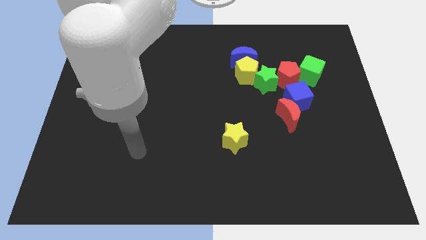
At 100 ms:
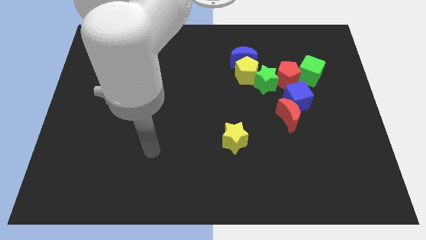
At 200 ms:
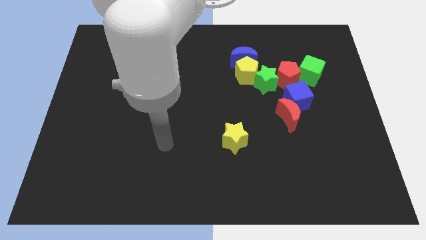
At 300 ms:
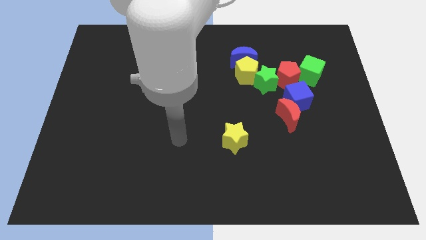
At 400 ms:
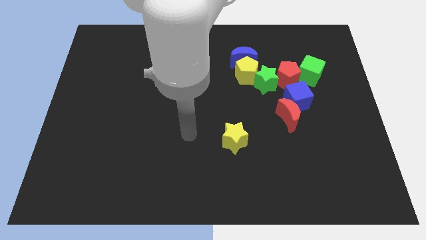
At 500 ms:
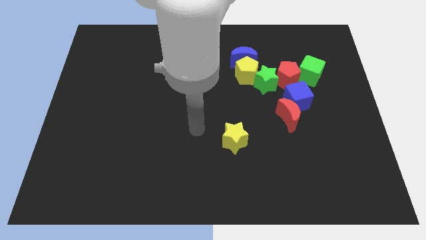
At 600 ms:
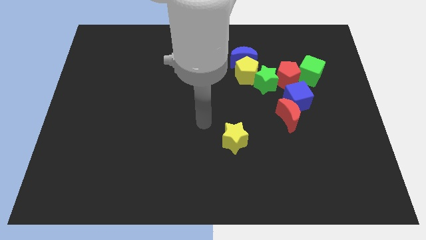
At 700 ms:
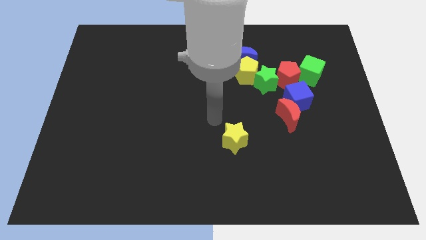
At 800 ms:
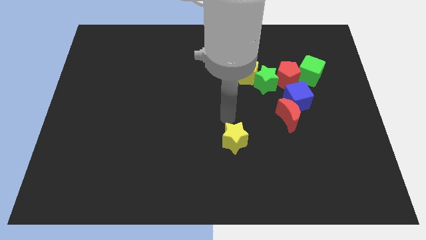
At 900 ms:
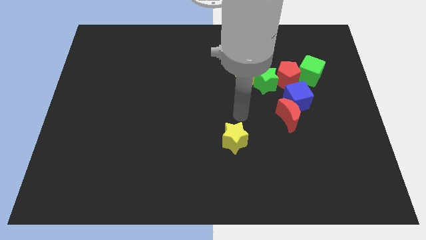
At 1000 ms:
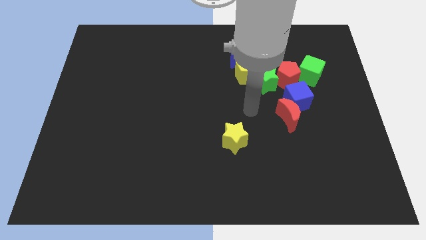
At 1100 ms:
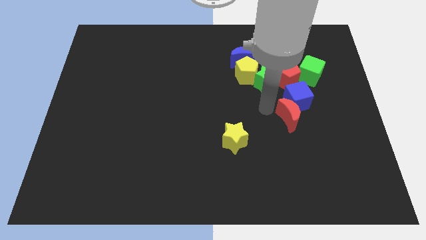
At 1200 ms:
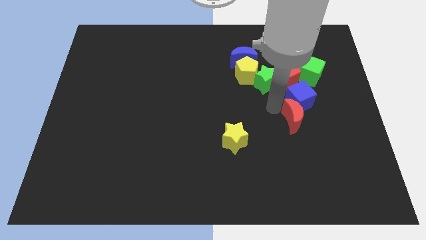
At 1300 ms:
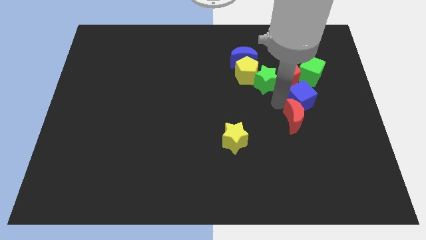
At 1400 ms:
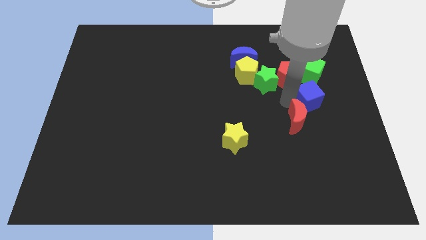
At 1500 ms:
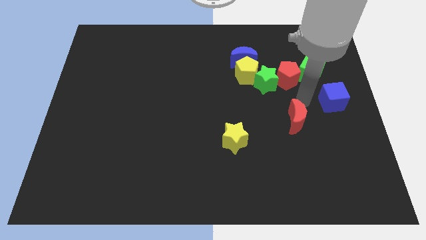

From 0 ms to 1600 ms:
separate the red moon from the blue cube

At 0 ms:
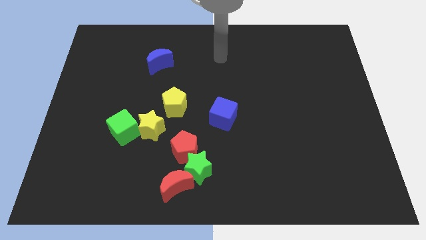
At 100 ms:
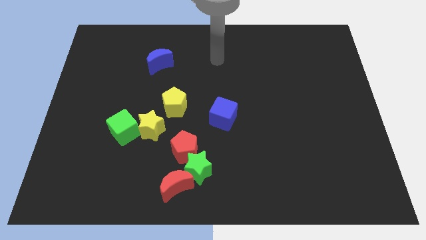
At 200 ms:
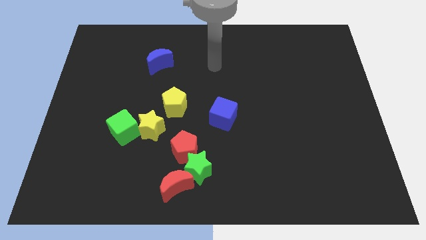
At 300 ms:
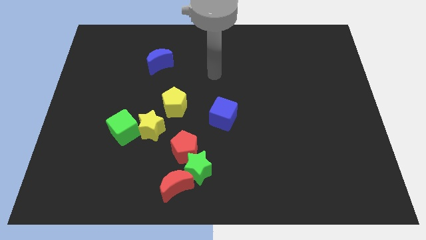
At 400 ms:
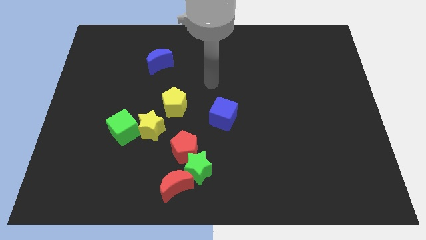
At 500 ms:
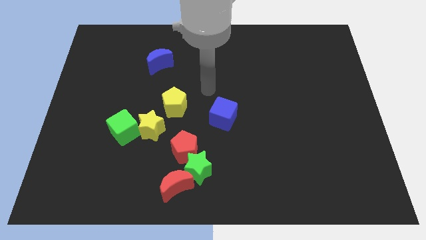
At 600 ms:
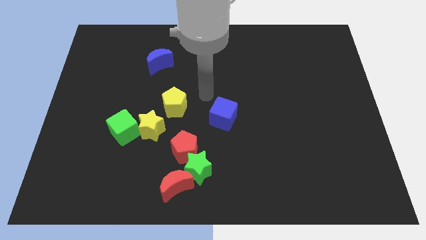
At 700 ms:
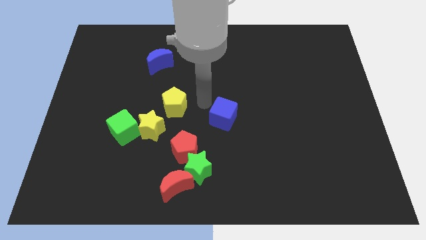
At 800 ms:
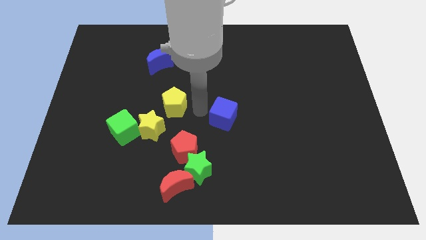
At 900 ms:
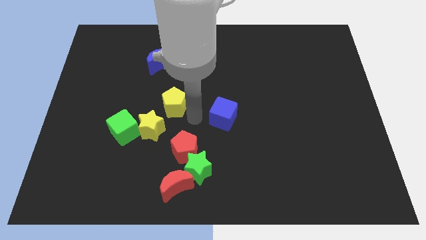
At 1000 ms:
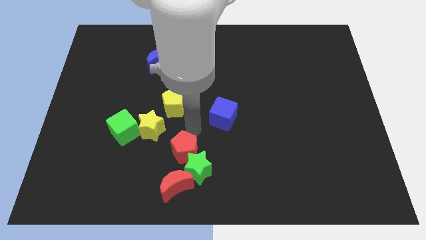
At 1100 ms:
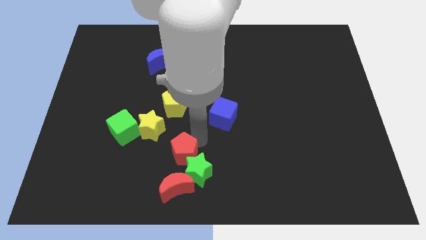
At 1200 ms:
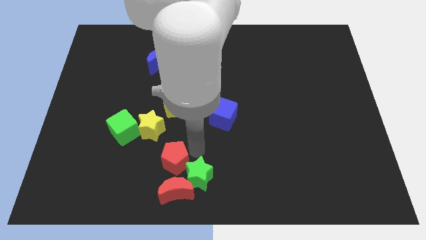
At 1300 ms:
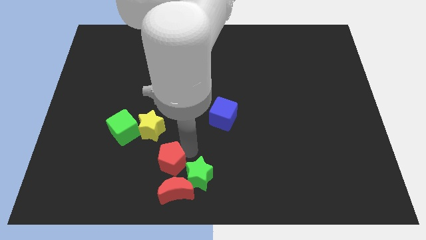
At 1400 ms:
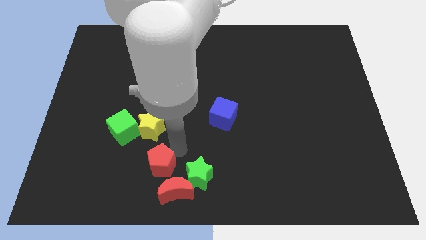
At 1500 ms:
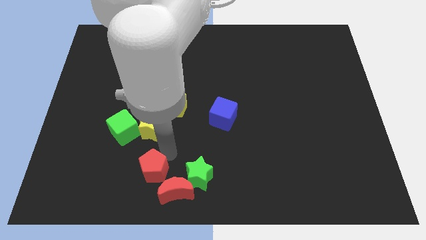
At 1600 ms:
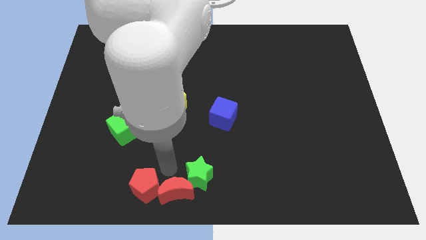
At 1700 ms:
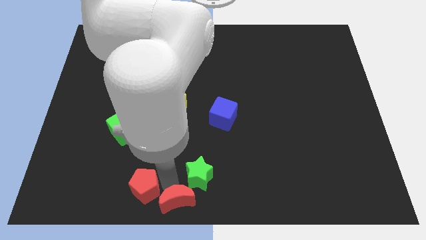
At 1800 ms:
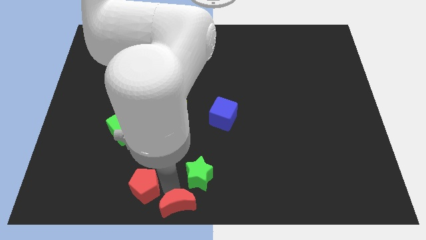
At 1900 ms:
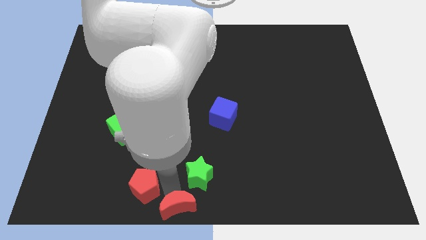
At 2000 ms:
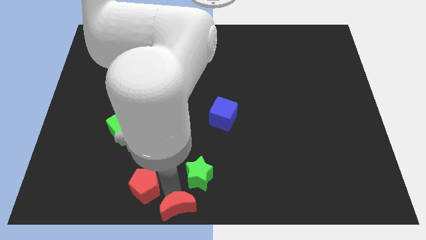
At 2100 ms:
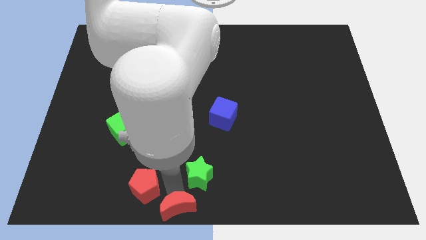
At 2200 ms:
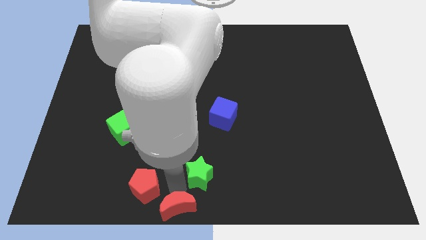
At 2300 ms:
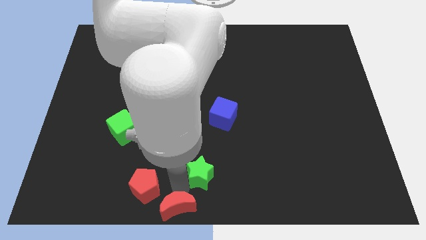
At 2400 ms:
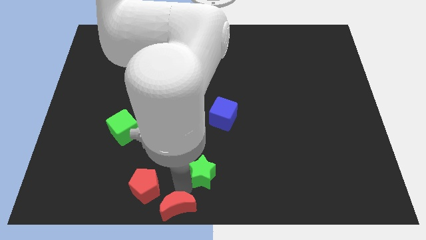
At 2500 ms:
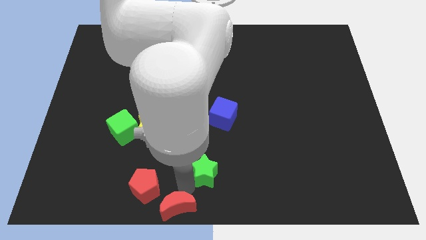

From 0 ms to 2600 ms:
pull the green star apart from the red pentagon and red moon

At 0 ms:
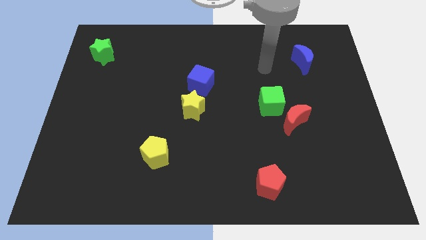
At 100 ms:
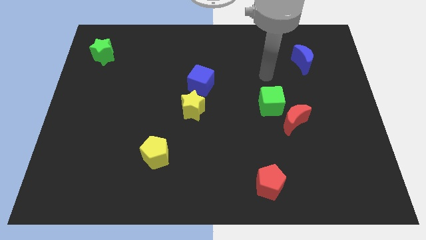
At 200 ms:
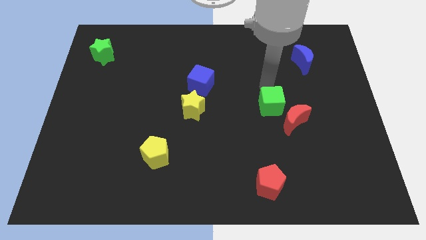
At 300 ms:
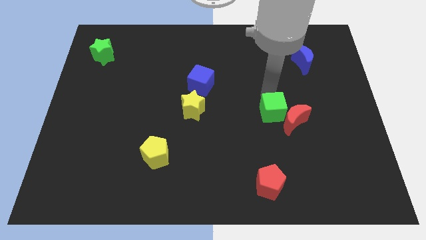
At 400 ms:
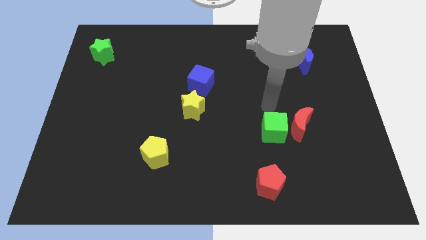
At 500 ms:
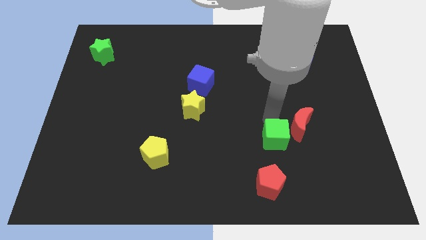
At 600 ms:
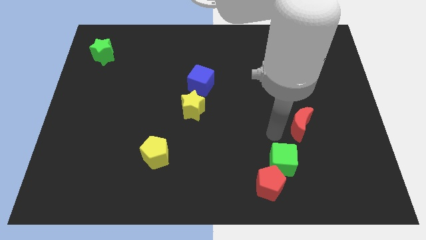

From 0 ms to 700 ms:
move the red moon away from the green cube

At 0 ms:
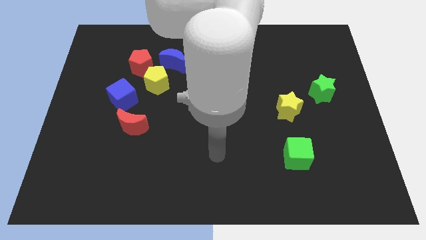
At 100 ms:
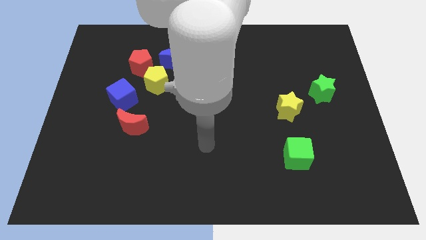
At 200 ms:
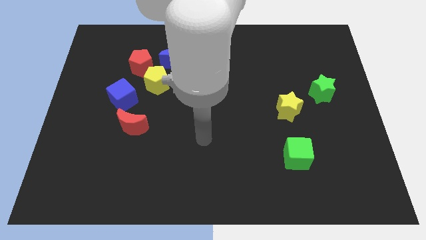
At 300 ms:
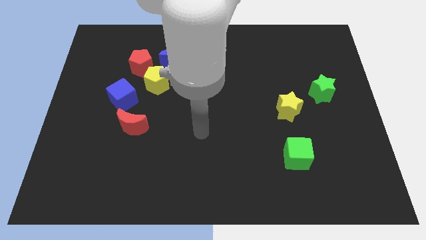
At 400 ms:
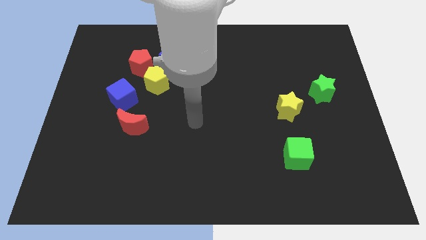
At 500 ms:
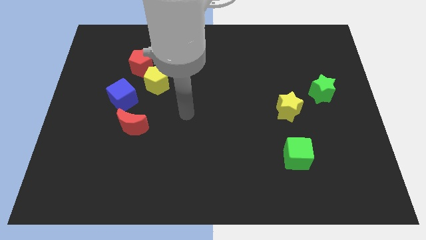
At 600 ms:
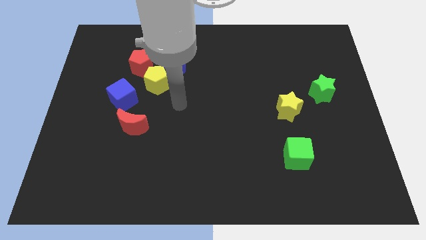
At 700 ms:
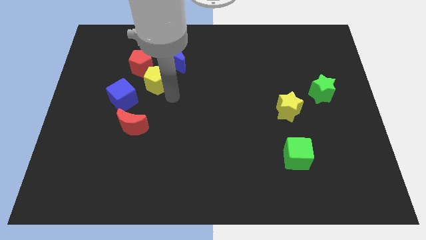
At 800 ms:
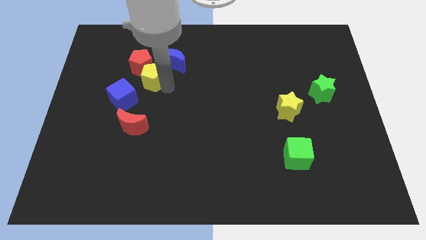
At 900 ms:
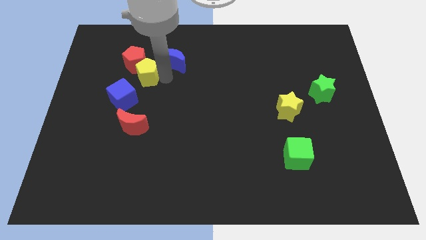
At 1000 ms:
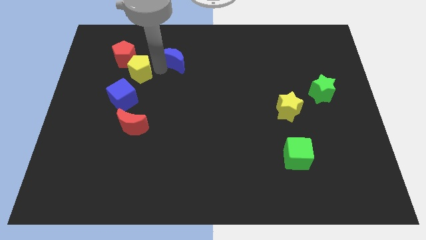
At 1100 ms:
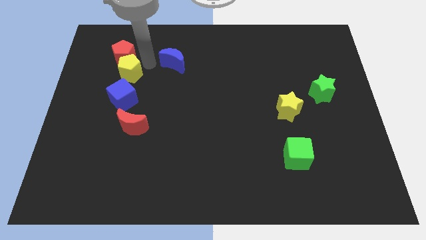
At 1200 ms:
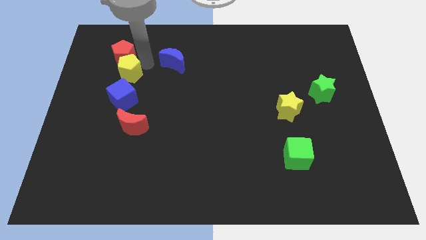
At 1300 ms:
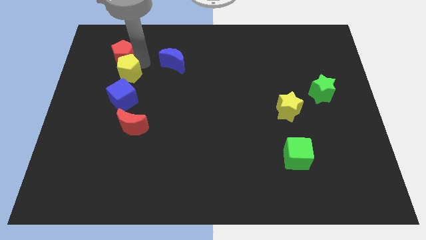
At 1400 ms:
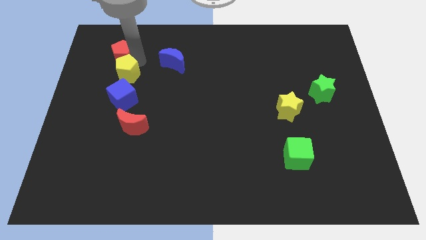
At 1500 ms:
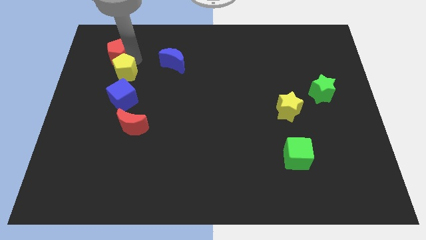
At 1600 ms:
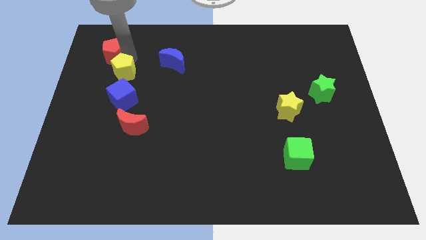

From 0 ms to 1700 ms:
pull the red pentagon apart from the yellow pentagon and blue moon

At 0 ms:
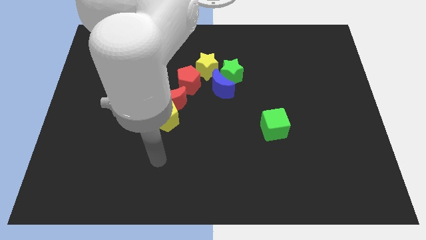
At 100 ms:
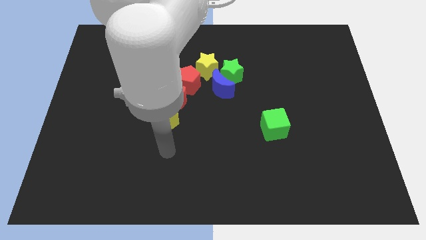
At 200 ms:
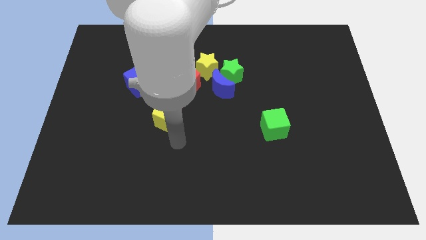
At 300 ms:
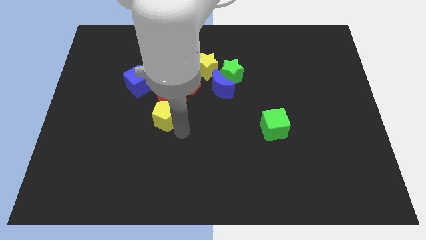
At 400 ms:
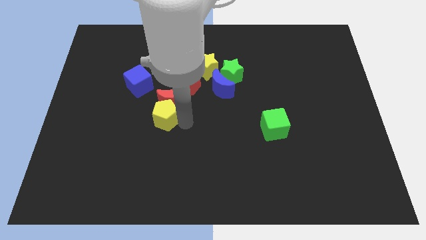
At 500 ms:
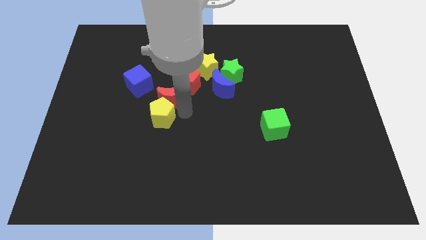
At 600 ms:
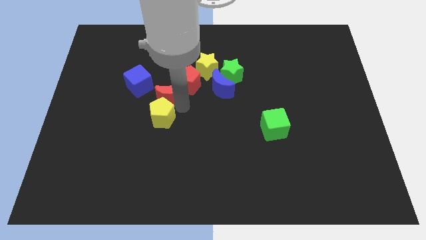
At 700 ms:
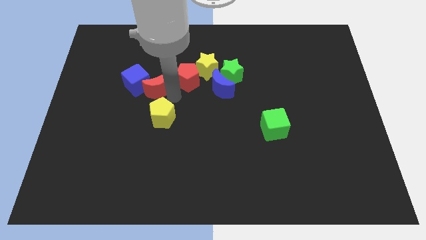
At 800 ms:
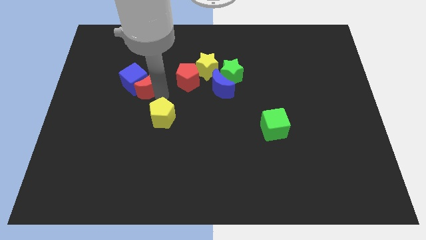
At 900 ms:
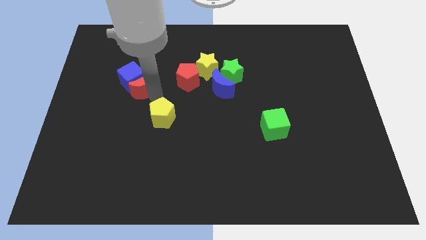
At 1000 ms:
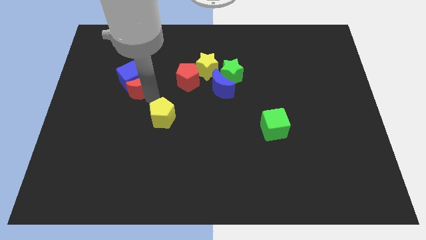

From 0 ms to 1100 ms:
pull the yellow pentagon apart from the red moon

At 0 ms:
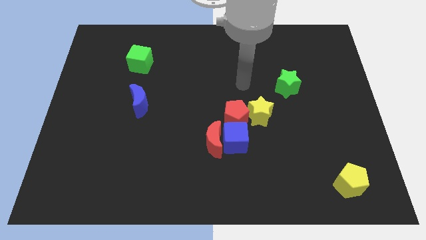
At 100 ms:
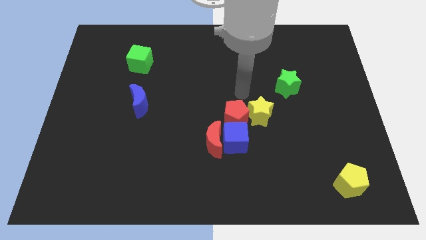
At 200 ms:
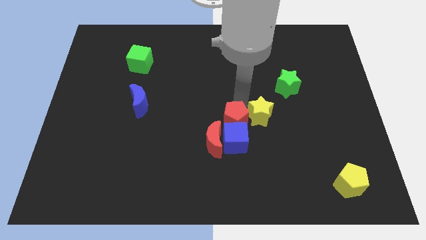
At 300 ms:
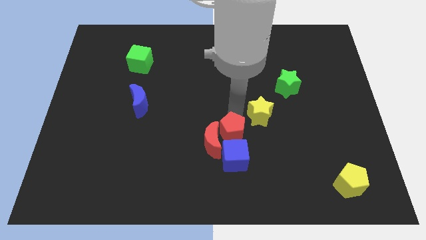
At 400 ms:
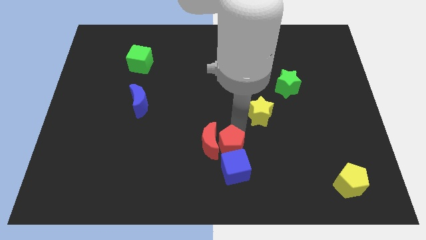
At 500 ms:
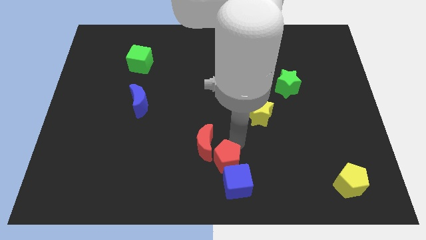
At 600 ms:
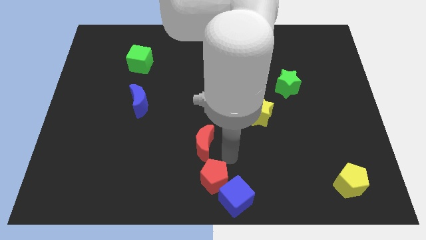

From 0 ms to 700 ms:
pull the red moon apart from the blue cube and red pentagon

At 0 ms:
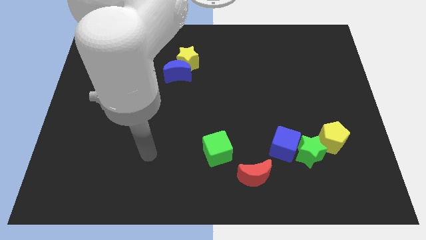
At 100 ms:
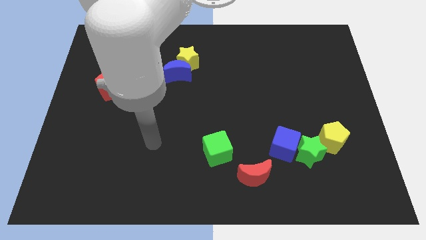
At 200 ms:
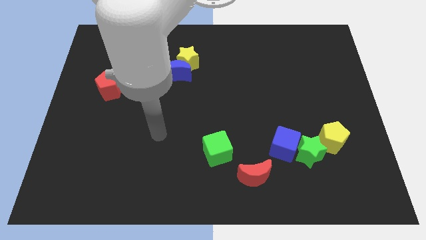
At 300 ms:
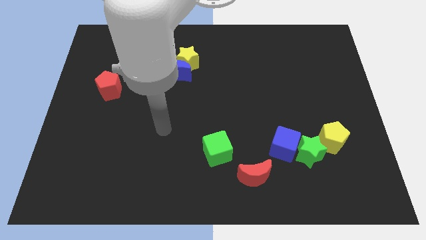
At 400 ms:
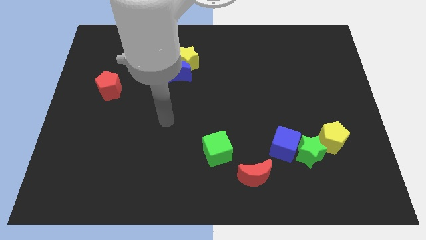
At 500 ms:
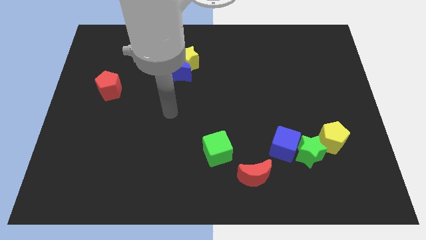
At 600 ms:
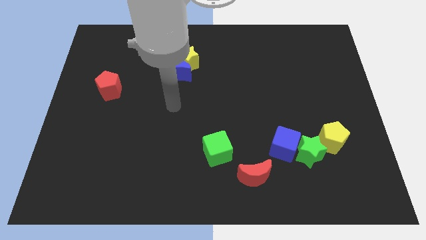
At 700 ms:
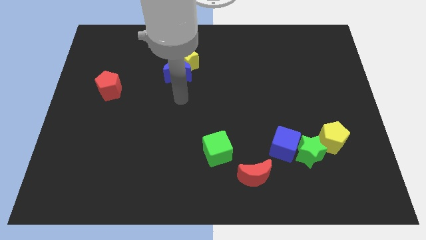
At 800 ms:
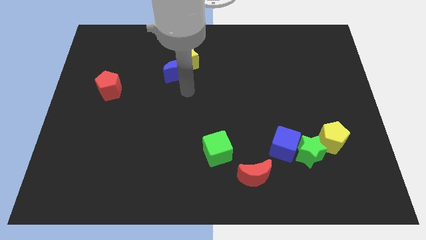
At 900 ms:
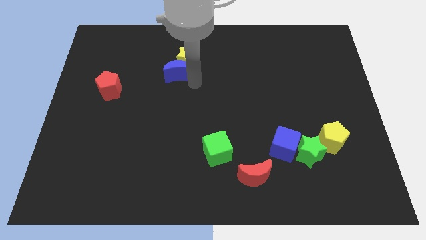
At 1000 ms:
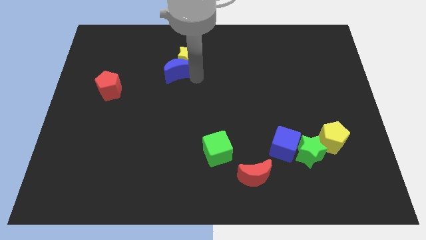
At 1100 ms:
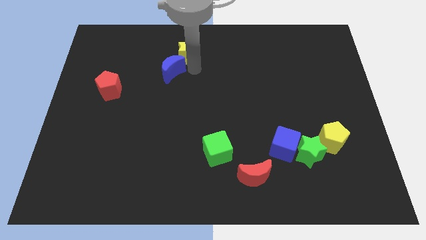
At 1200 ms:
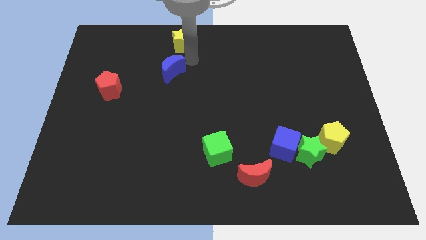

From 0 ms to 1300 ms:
move the blue moon away from the yellow star
